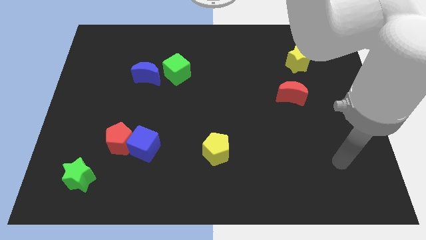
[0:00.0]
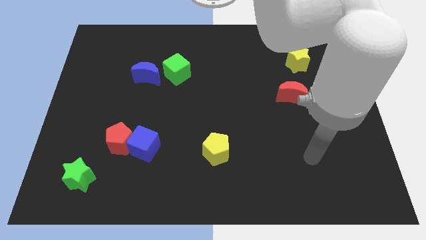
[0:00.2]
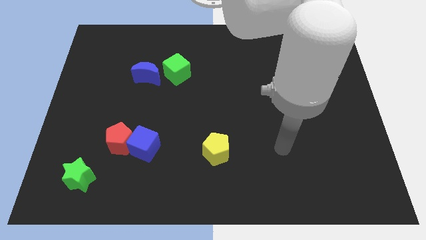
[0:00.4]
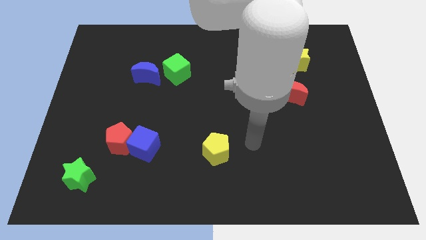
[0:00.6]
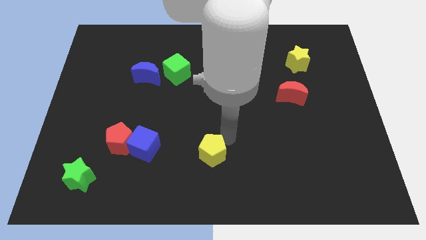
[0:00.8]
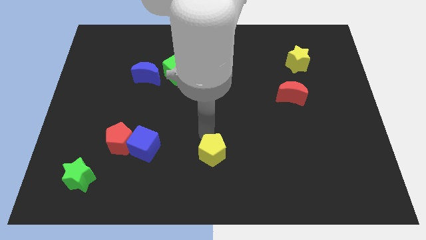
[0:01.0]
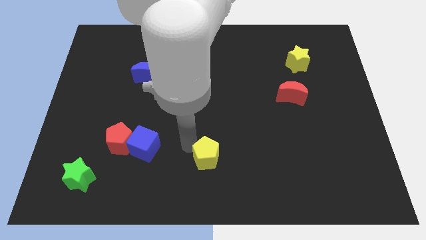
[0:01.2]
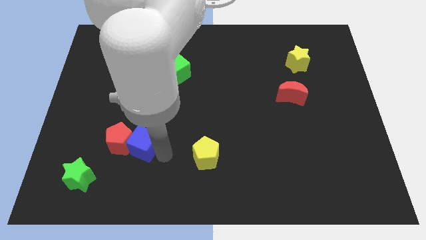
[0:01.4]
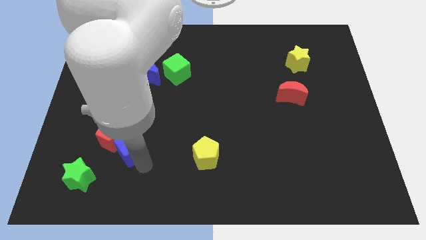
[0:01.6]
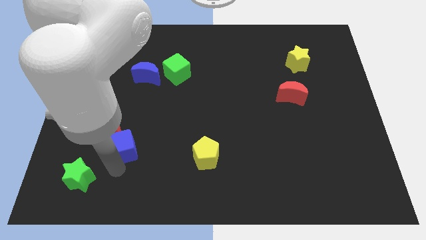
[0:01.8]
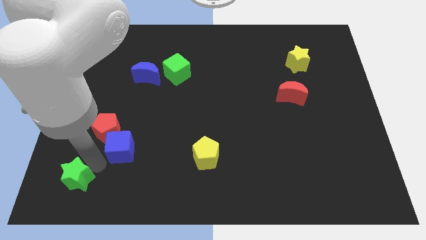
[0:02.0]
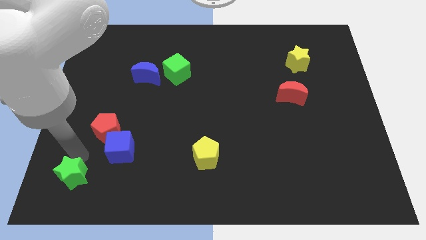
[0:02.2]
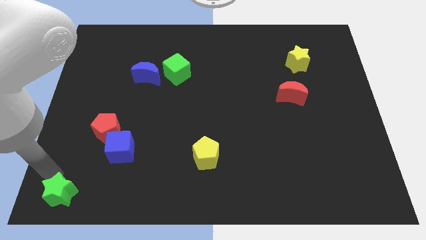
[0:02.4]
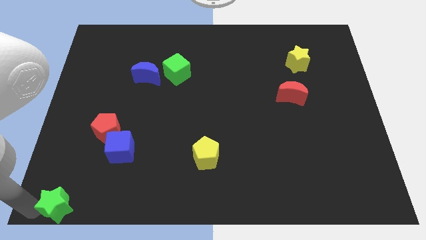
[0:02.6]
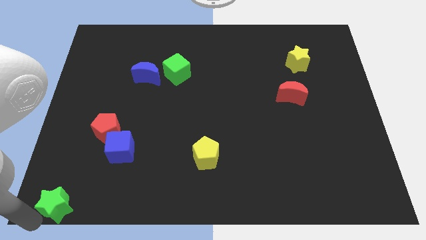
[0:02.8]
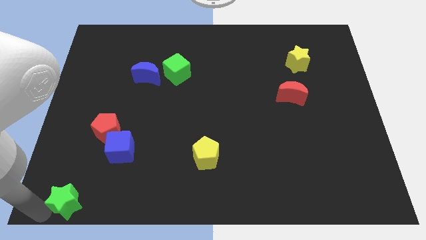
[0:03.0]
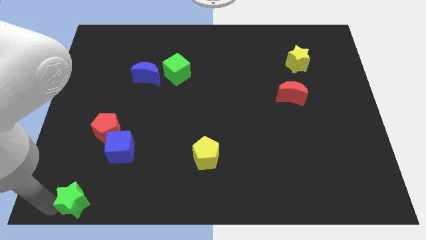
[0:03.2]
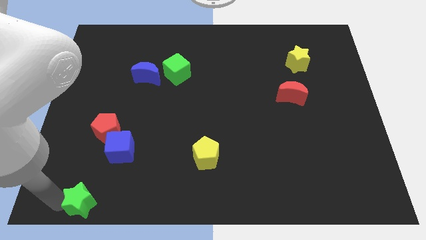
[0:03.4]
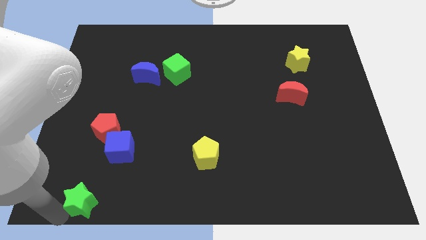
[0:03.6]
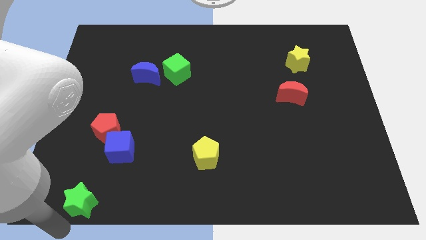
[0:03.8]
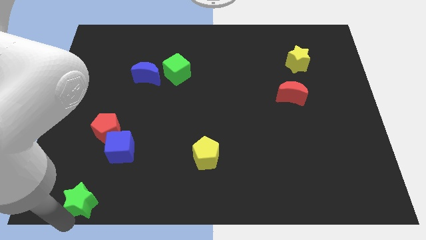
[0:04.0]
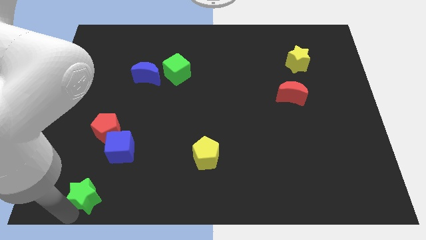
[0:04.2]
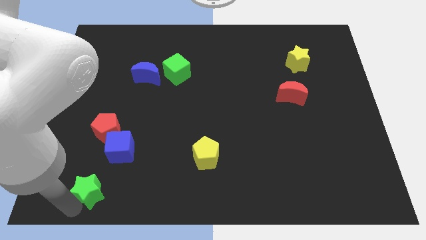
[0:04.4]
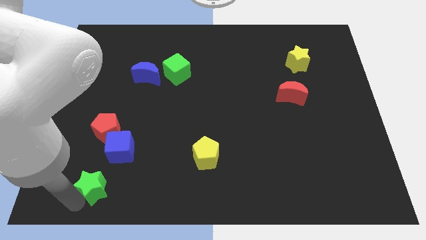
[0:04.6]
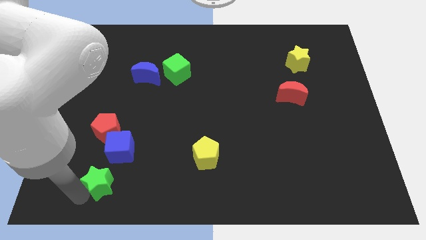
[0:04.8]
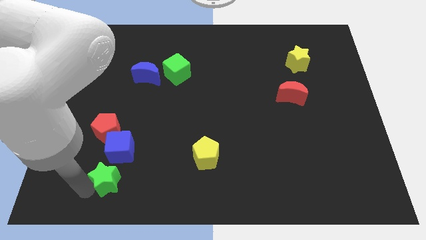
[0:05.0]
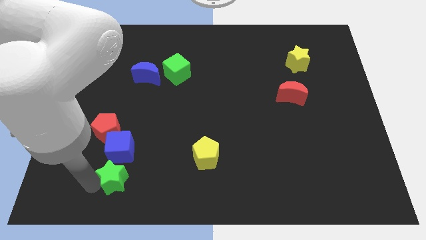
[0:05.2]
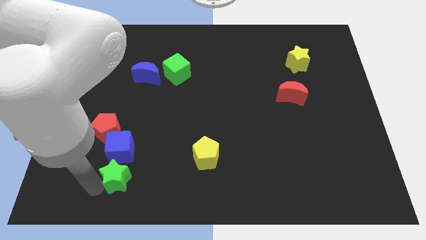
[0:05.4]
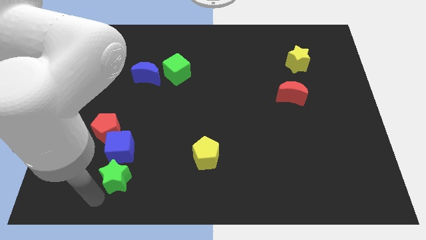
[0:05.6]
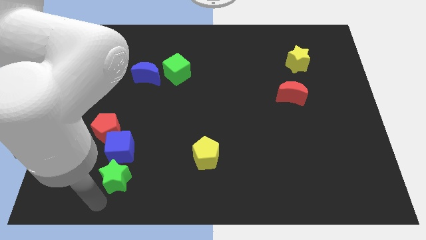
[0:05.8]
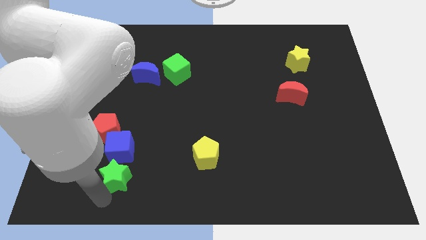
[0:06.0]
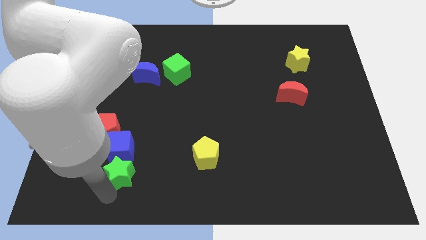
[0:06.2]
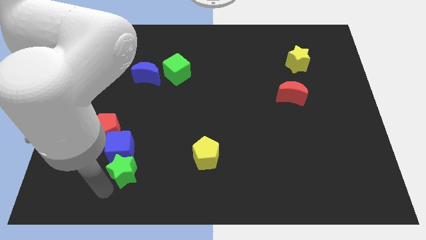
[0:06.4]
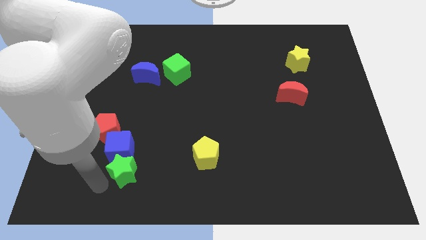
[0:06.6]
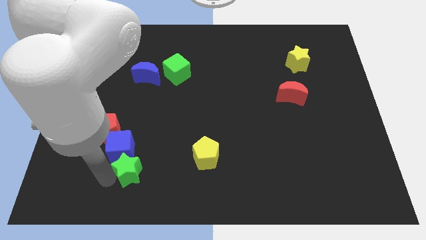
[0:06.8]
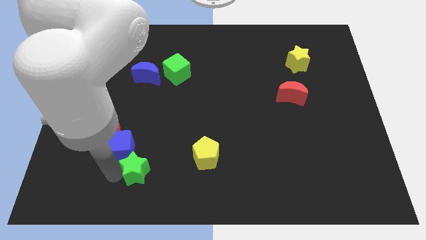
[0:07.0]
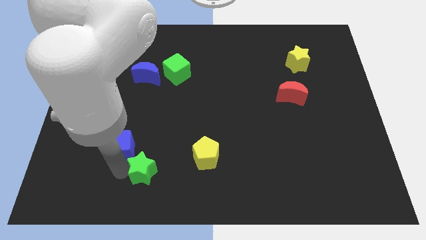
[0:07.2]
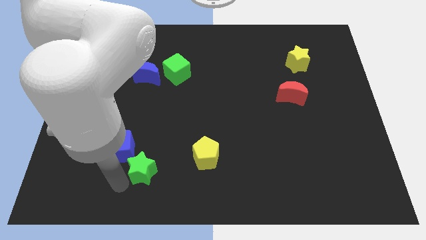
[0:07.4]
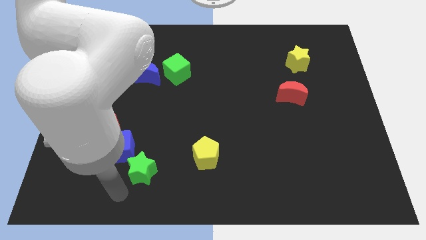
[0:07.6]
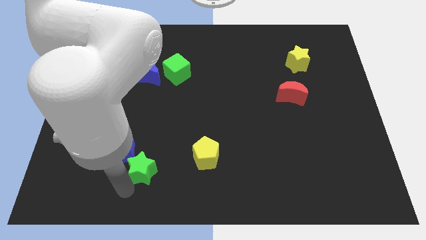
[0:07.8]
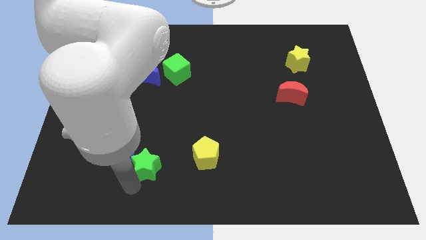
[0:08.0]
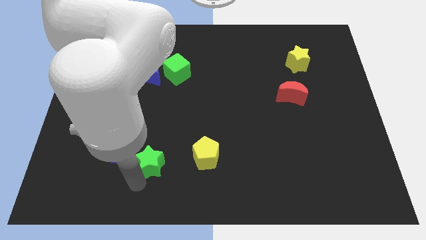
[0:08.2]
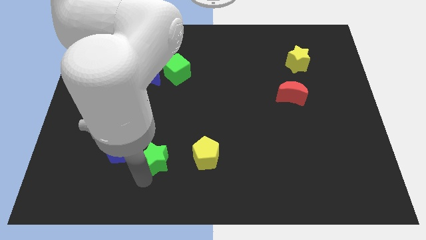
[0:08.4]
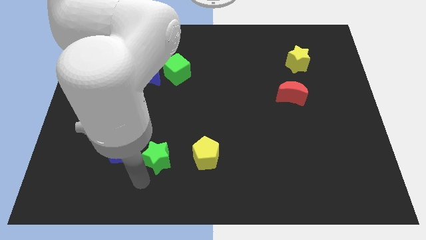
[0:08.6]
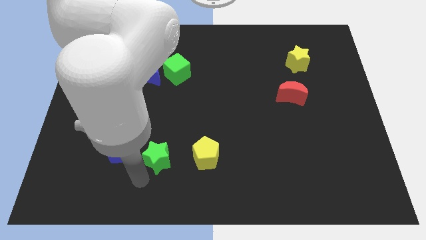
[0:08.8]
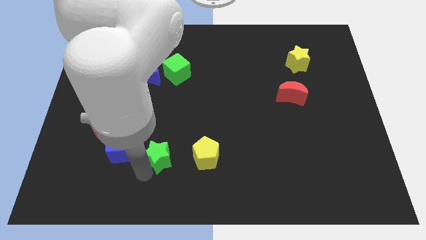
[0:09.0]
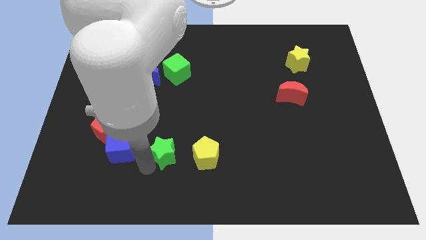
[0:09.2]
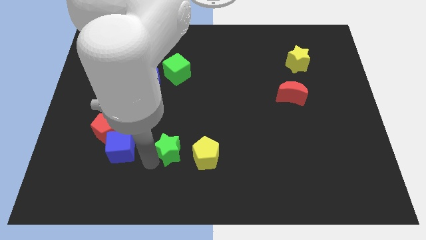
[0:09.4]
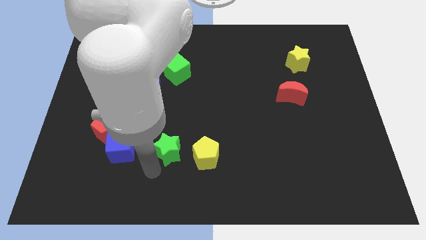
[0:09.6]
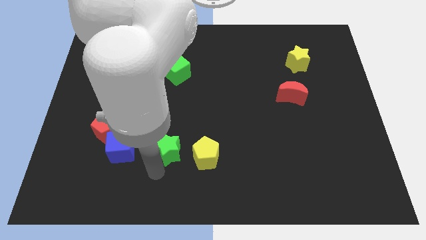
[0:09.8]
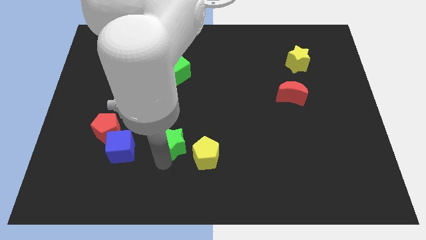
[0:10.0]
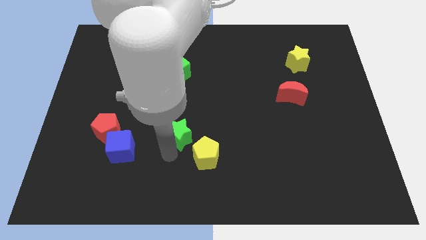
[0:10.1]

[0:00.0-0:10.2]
slide the green star to the center

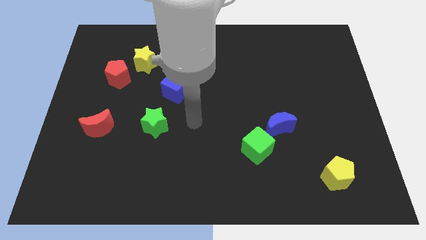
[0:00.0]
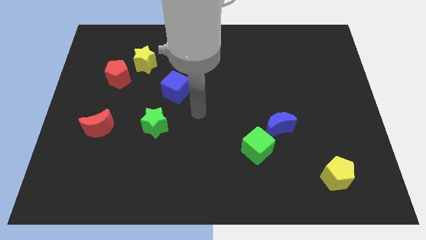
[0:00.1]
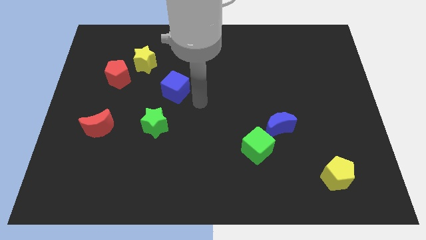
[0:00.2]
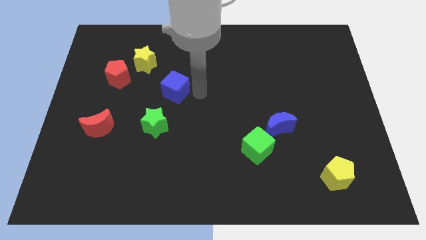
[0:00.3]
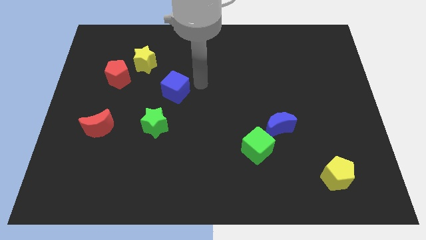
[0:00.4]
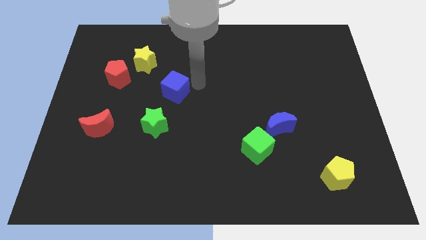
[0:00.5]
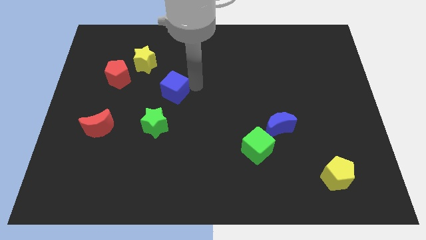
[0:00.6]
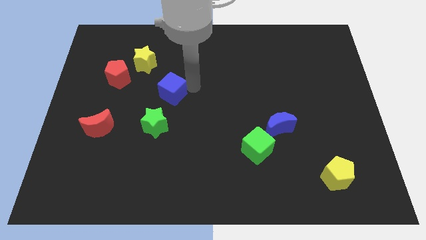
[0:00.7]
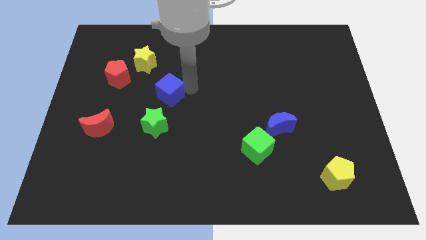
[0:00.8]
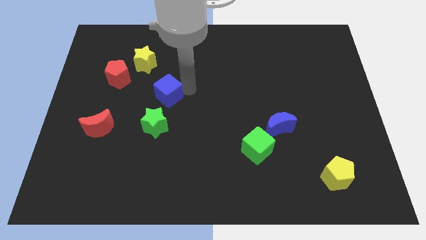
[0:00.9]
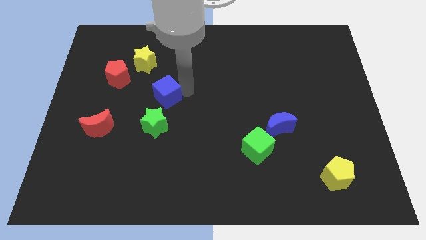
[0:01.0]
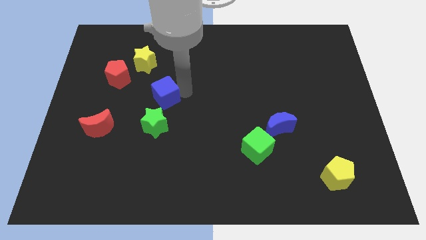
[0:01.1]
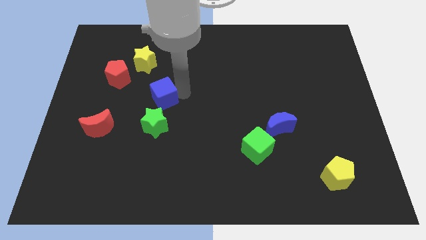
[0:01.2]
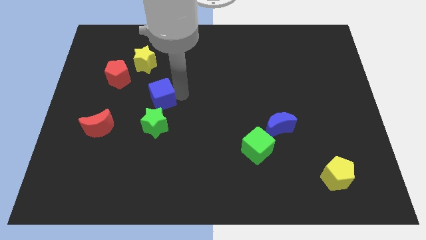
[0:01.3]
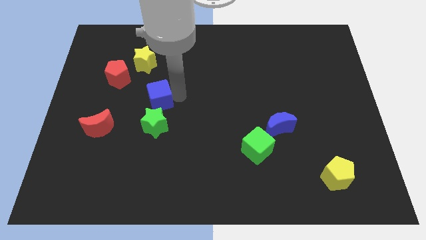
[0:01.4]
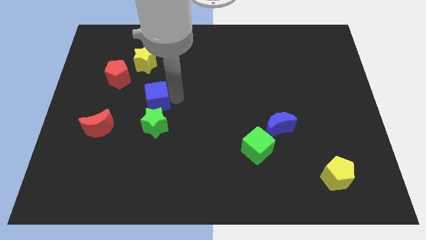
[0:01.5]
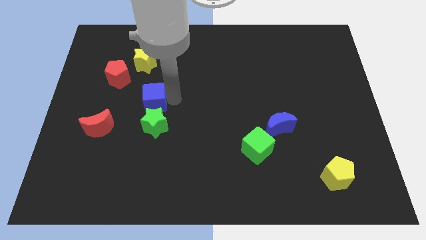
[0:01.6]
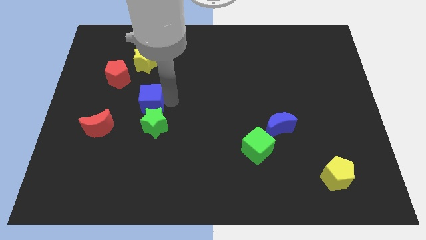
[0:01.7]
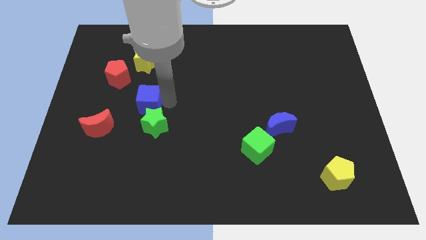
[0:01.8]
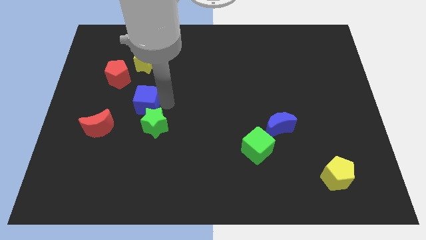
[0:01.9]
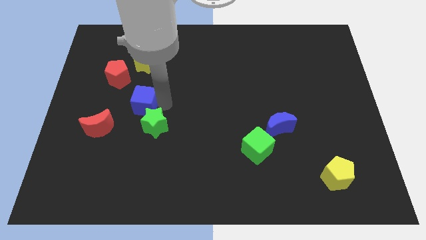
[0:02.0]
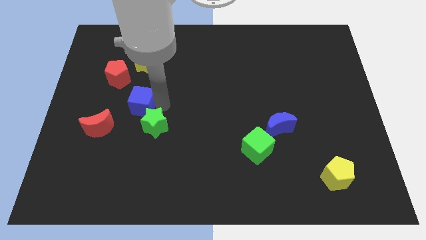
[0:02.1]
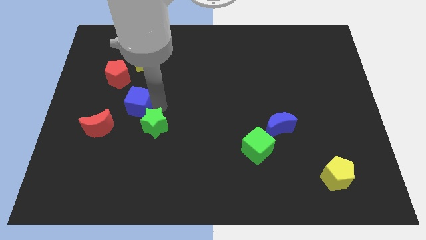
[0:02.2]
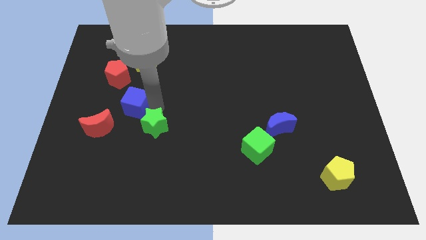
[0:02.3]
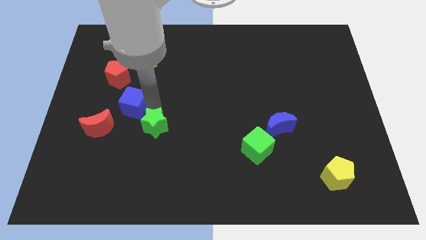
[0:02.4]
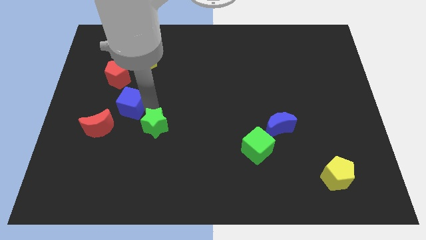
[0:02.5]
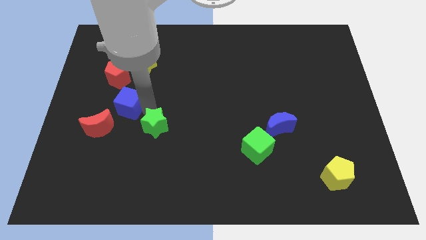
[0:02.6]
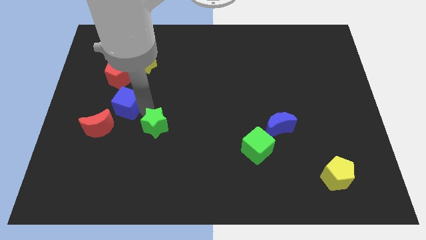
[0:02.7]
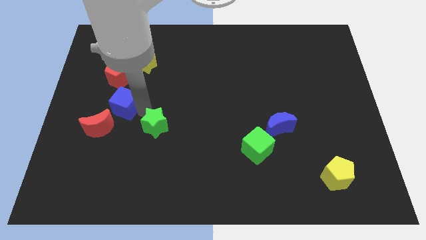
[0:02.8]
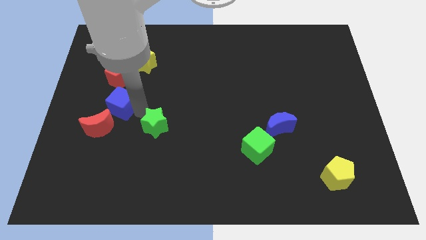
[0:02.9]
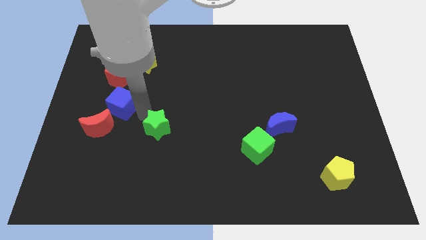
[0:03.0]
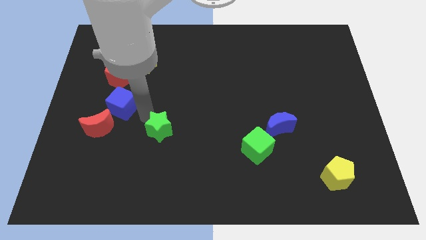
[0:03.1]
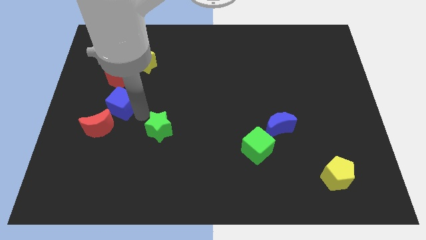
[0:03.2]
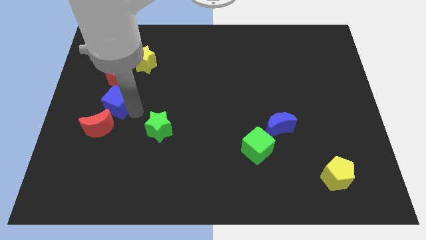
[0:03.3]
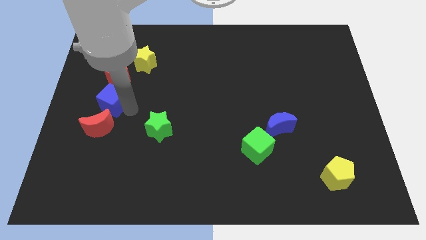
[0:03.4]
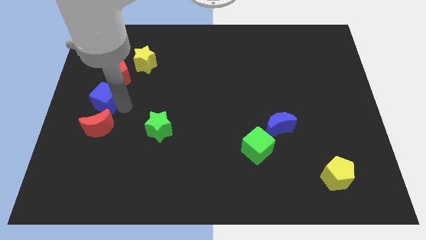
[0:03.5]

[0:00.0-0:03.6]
put the blue cube to the left side of the board
